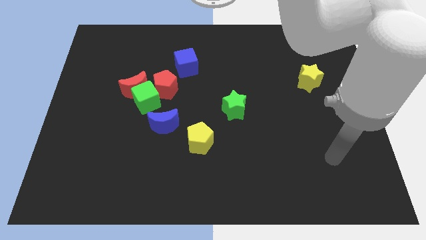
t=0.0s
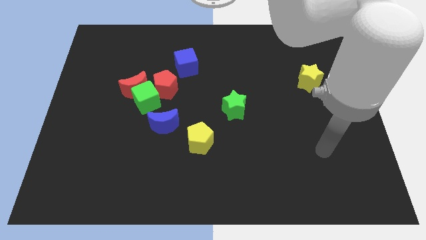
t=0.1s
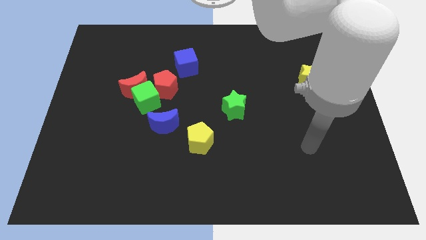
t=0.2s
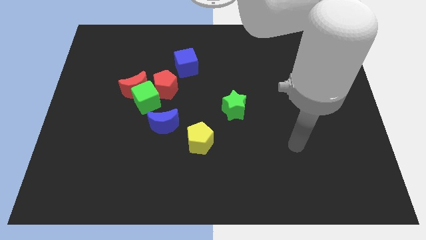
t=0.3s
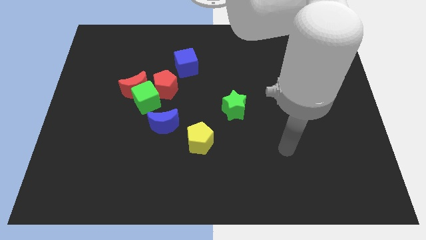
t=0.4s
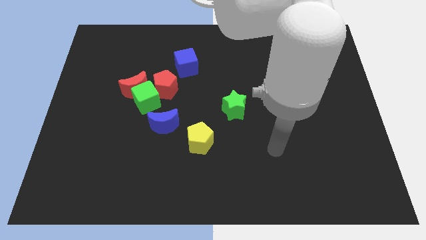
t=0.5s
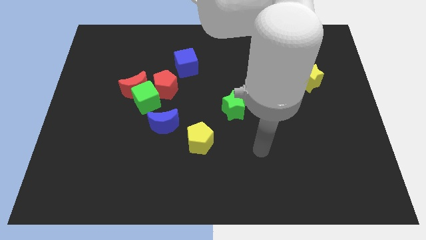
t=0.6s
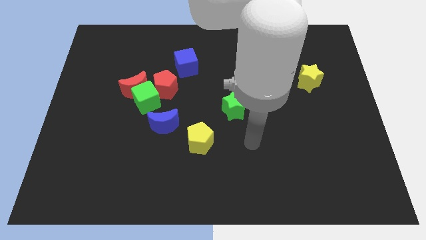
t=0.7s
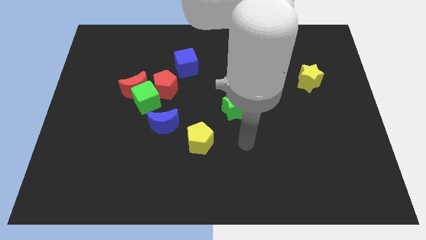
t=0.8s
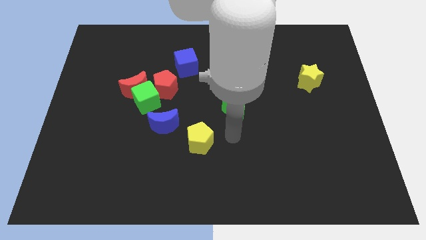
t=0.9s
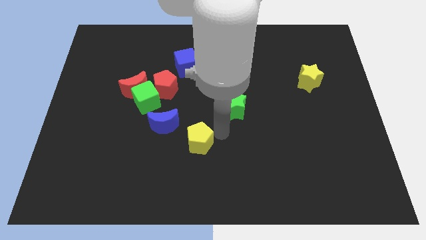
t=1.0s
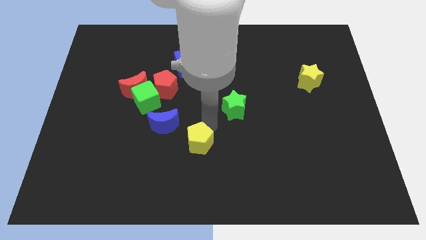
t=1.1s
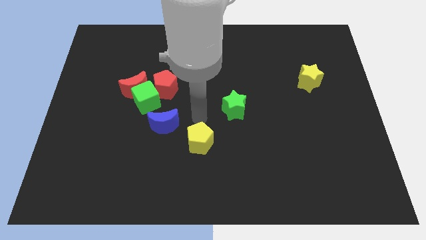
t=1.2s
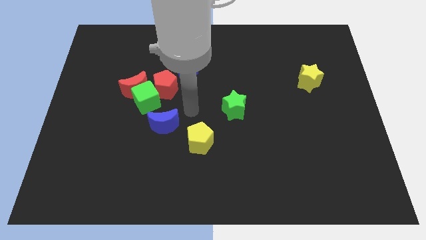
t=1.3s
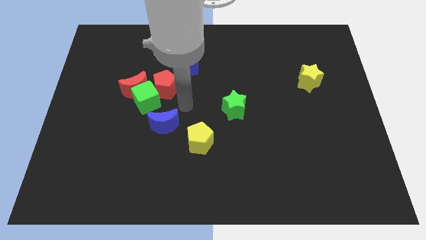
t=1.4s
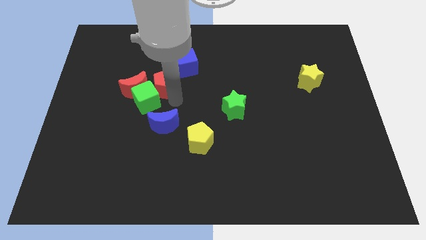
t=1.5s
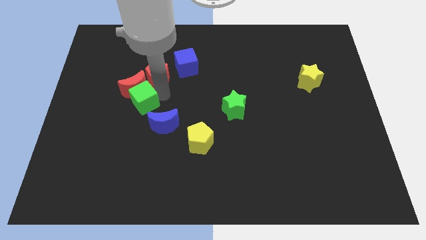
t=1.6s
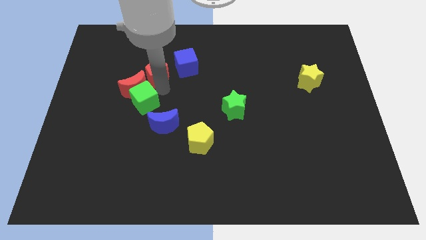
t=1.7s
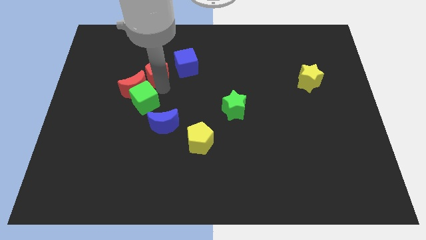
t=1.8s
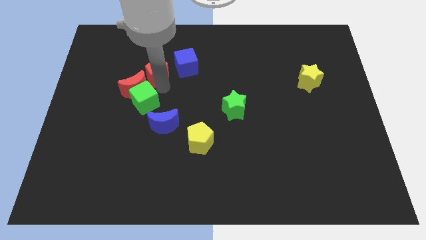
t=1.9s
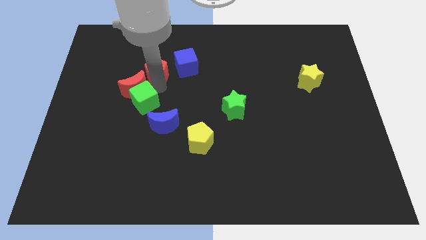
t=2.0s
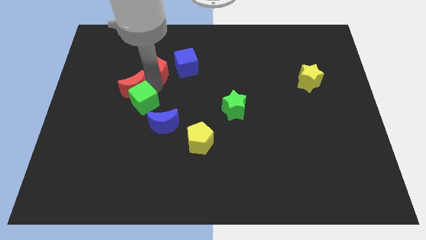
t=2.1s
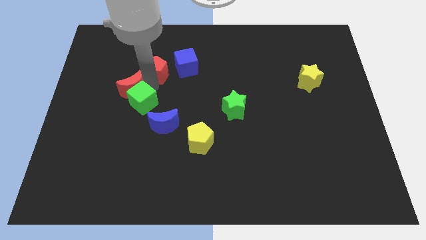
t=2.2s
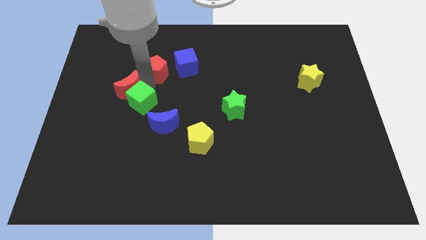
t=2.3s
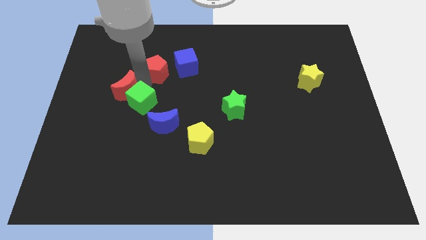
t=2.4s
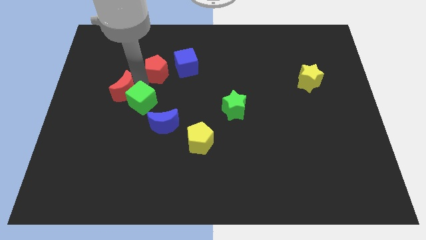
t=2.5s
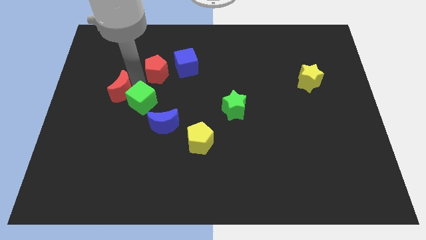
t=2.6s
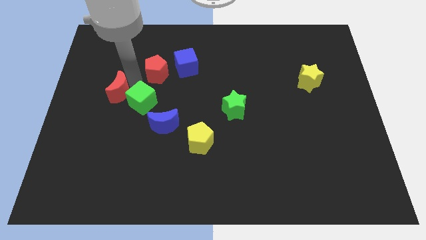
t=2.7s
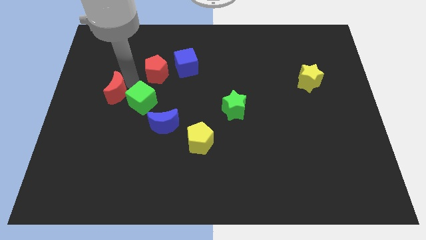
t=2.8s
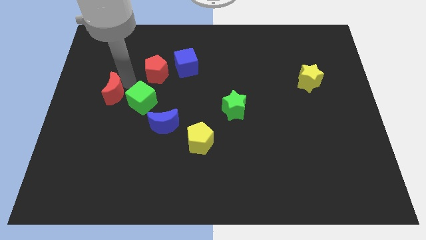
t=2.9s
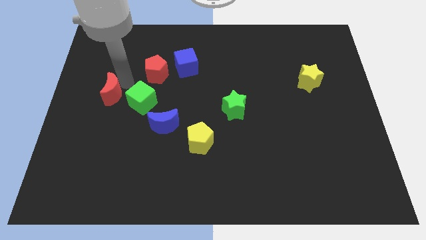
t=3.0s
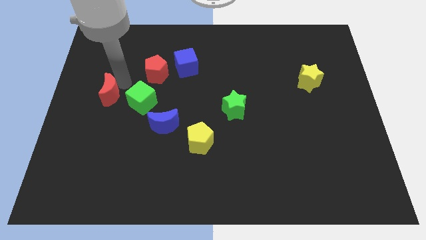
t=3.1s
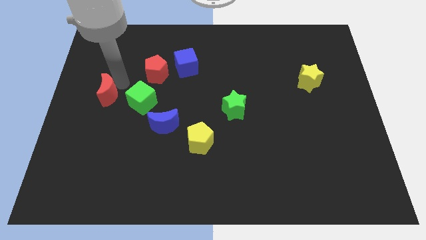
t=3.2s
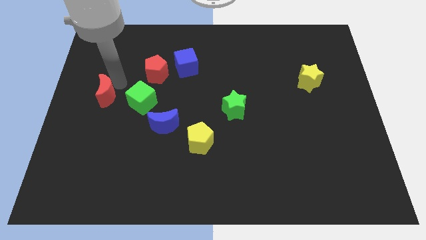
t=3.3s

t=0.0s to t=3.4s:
move the red moon away from the green cube and red pentagon

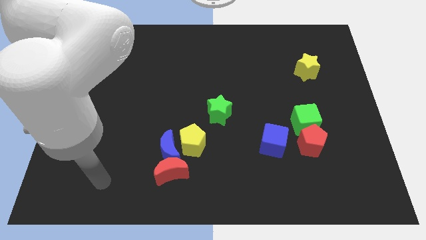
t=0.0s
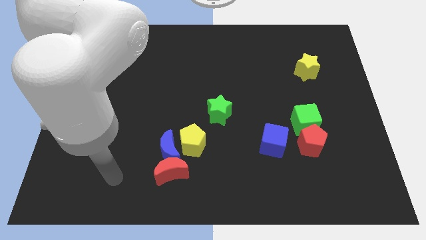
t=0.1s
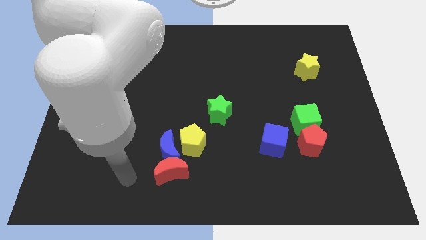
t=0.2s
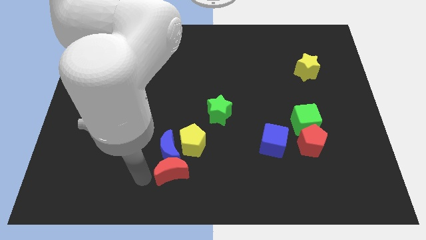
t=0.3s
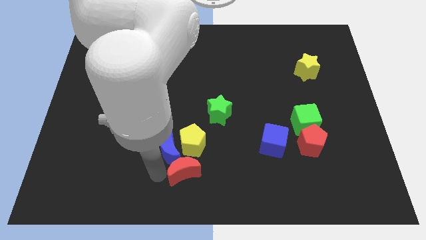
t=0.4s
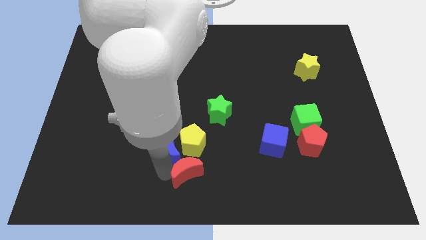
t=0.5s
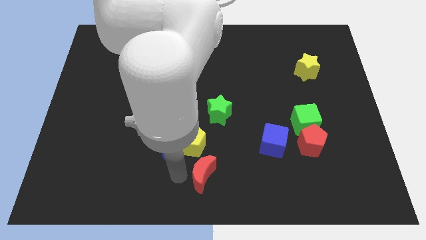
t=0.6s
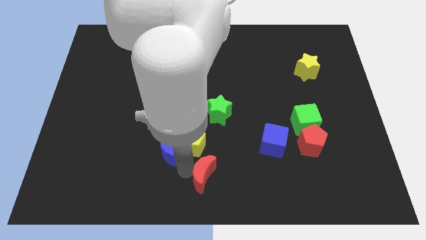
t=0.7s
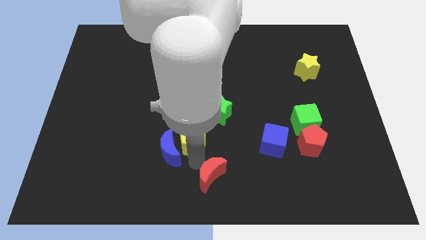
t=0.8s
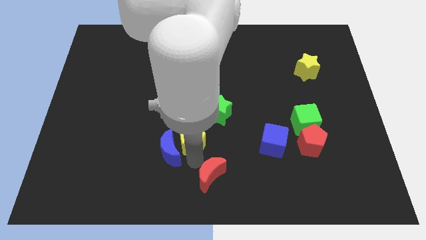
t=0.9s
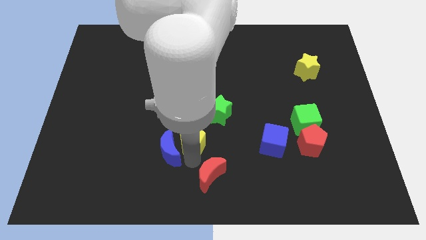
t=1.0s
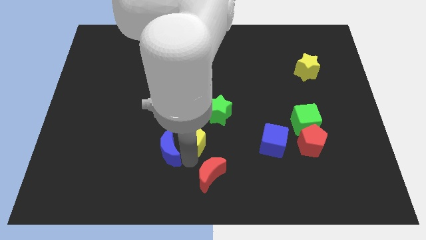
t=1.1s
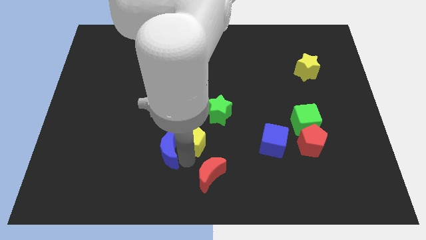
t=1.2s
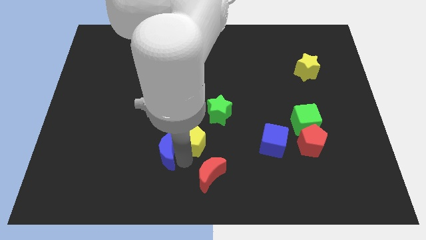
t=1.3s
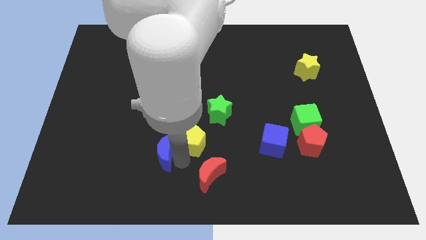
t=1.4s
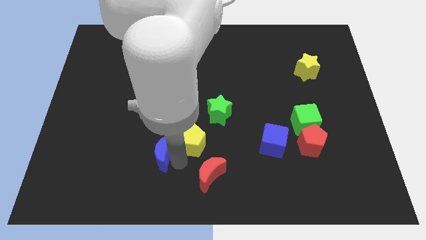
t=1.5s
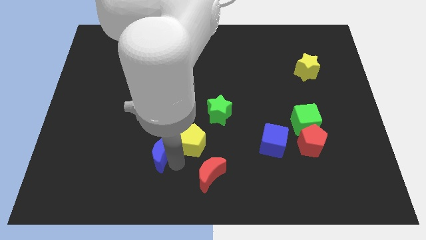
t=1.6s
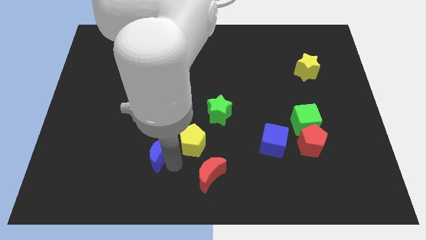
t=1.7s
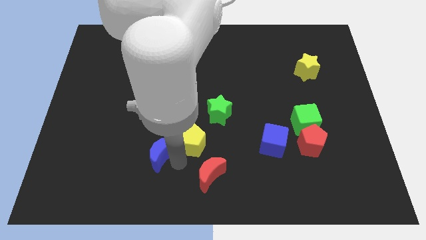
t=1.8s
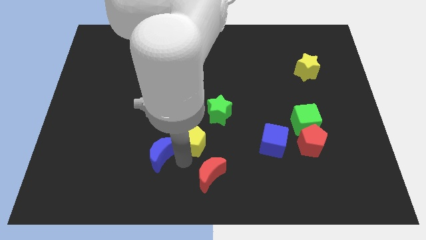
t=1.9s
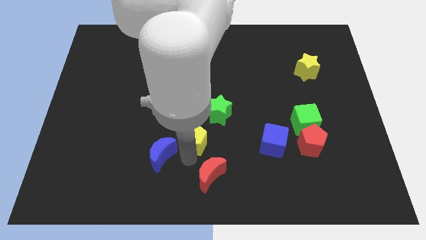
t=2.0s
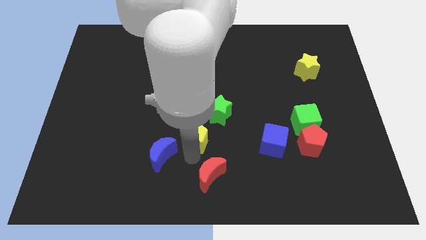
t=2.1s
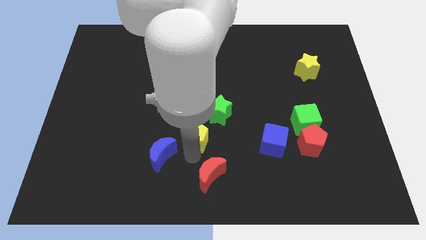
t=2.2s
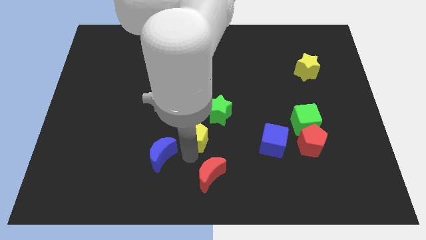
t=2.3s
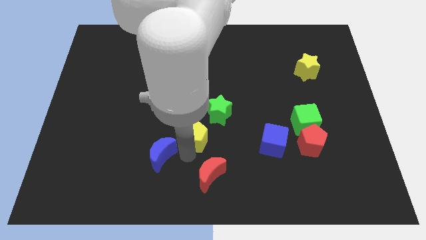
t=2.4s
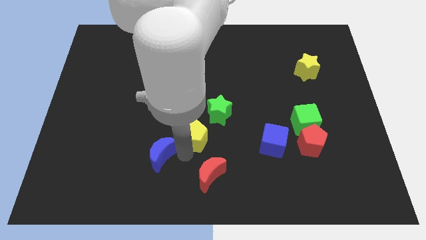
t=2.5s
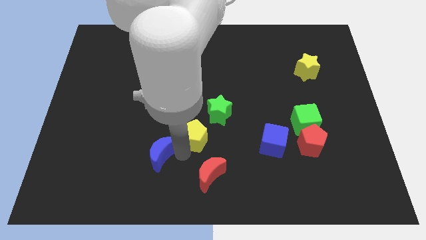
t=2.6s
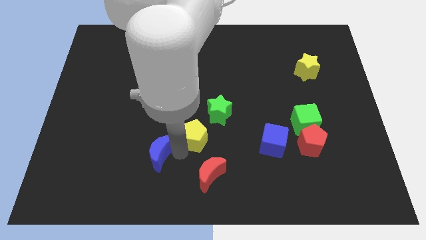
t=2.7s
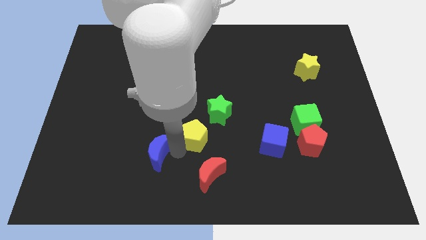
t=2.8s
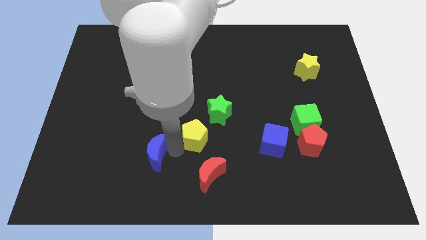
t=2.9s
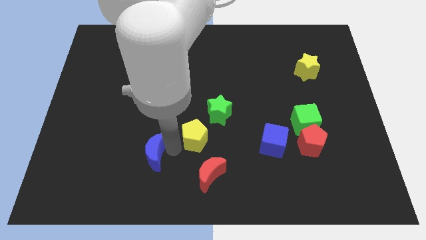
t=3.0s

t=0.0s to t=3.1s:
move the blue moon away from the red moon and yellow pentagon

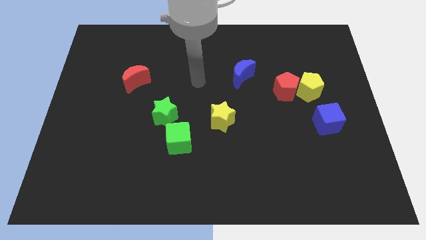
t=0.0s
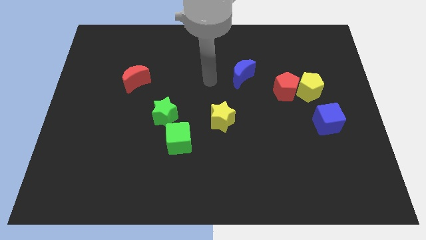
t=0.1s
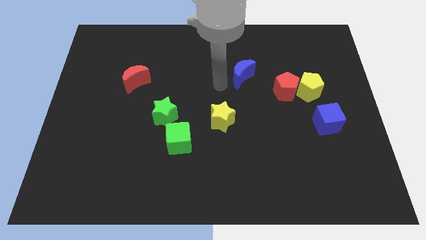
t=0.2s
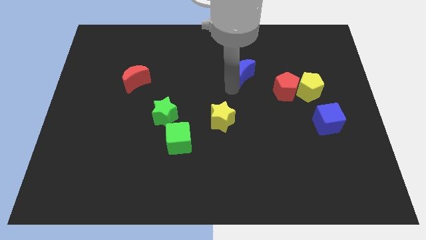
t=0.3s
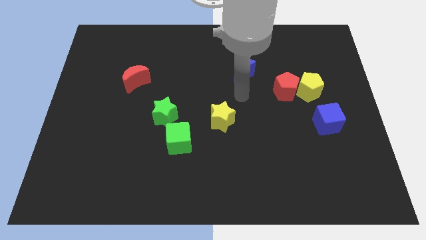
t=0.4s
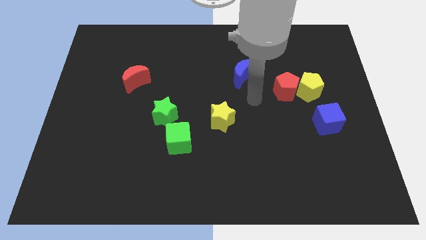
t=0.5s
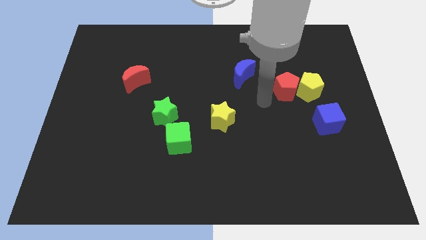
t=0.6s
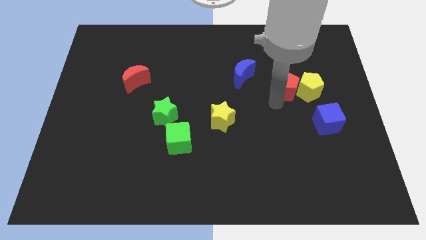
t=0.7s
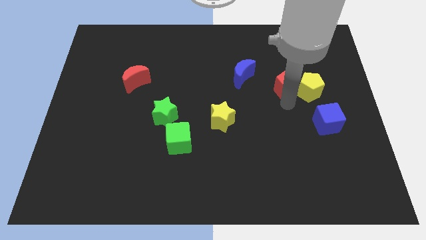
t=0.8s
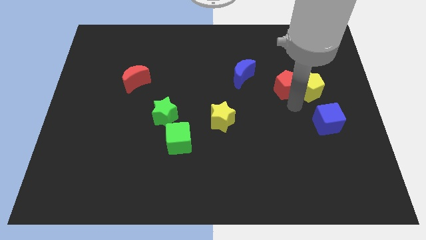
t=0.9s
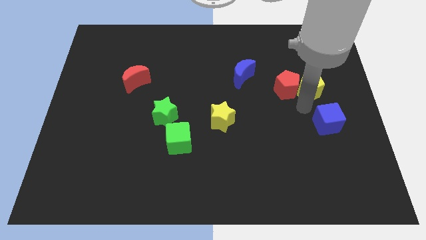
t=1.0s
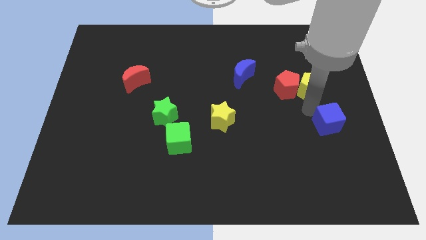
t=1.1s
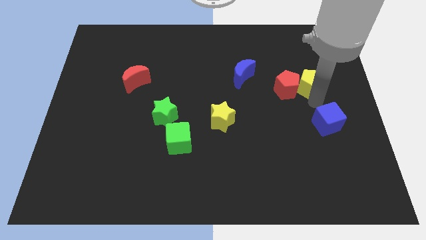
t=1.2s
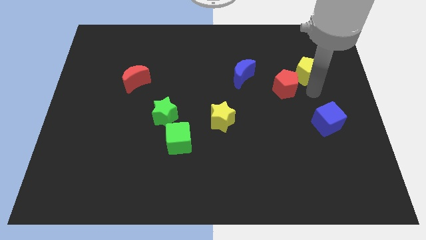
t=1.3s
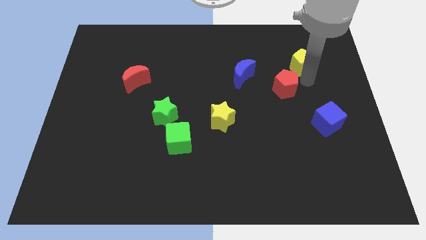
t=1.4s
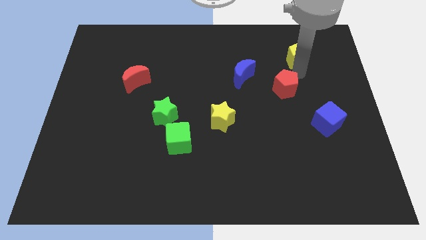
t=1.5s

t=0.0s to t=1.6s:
pull the red pentagon apart from the yellow pentagon

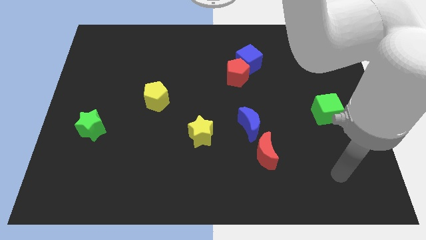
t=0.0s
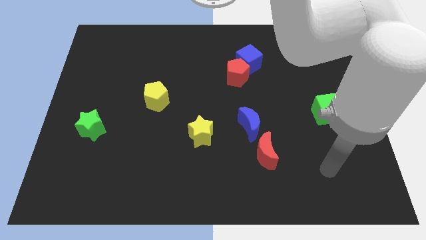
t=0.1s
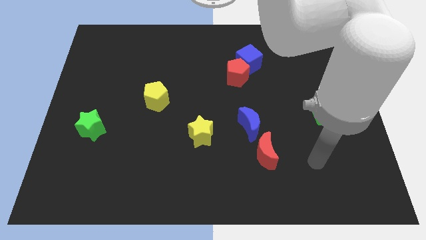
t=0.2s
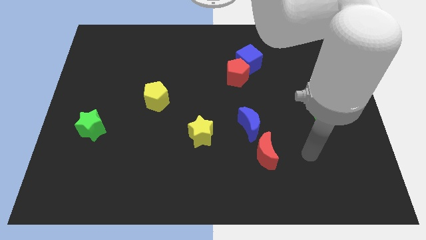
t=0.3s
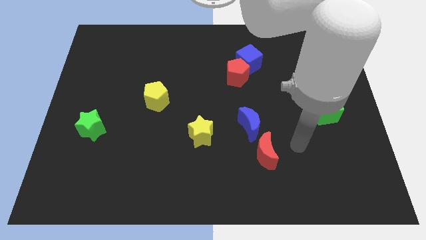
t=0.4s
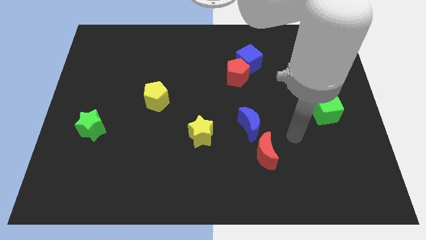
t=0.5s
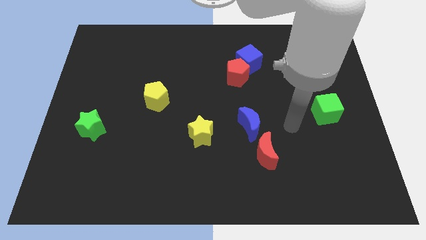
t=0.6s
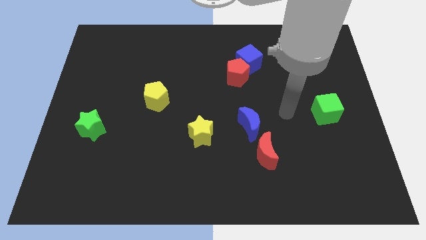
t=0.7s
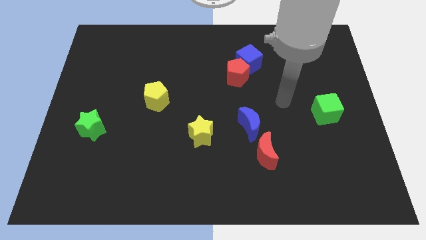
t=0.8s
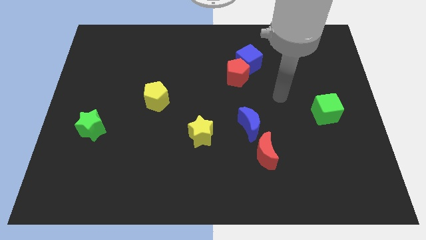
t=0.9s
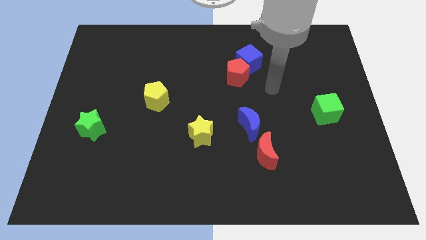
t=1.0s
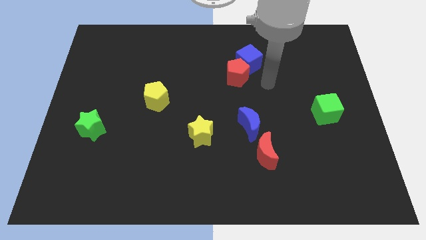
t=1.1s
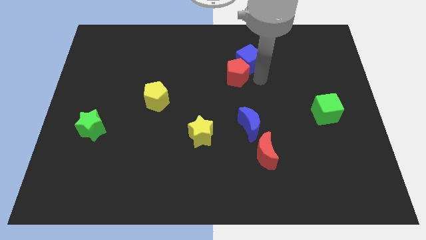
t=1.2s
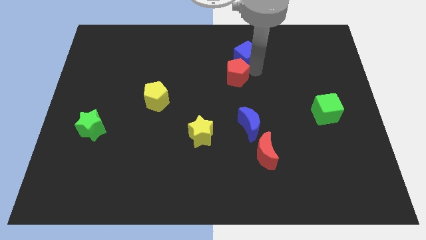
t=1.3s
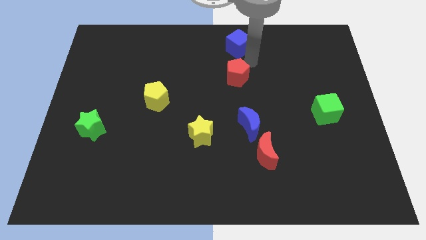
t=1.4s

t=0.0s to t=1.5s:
move the red pentagon away from the blue cube
